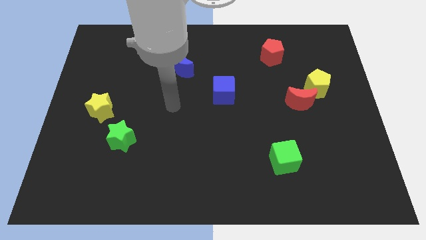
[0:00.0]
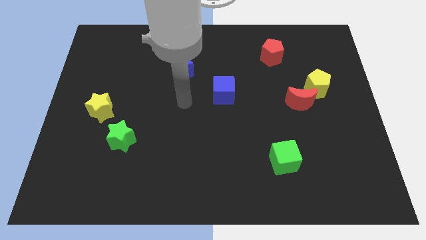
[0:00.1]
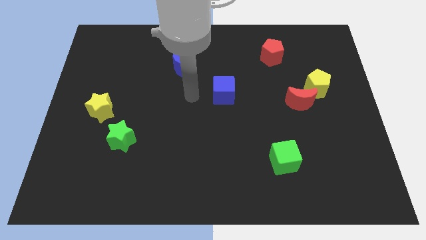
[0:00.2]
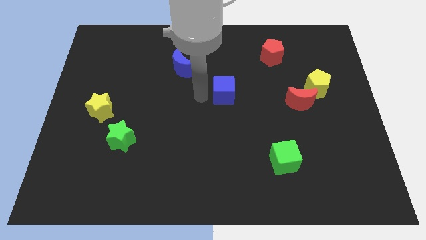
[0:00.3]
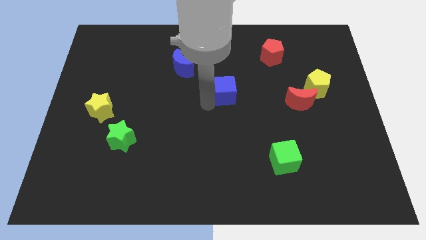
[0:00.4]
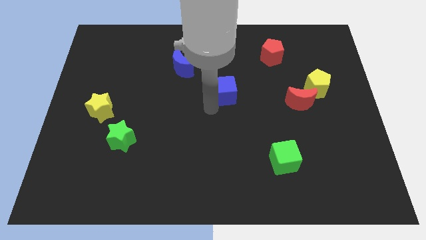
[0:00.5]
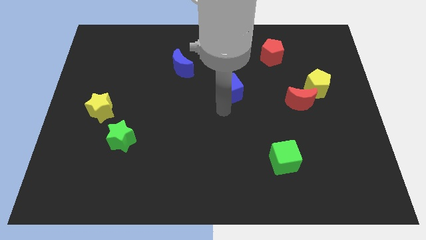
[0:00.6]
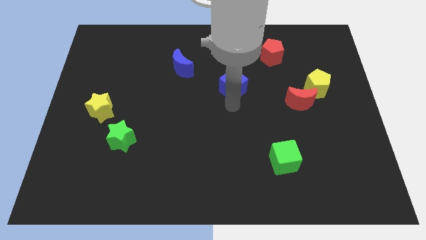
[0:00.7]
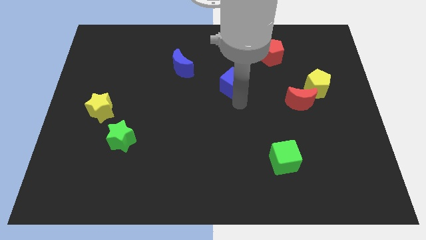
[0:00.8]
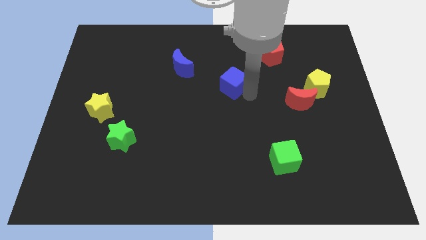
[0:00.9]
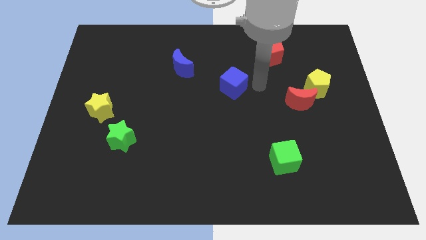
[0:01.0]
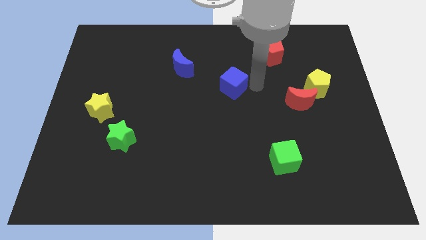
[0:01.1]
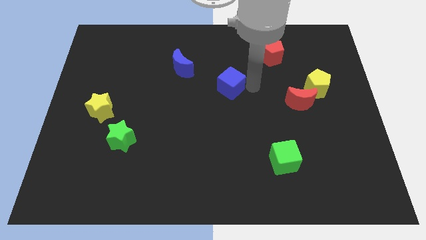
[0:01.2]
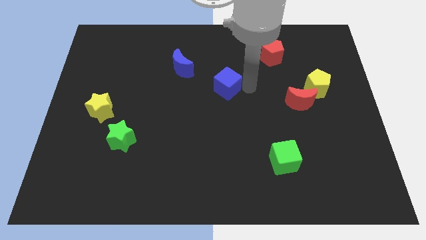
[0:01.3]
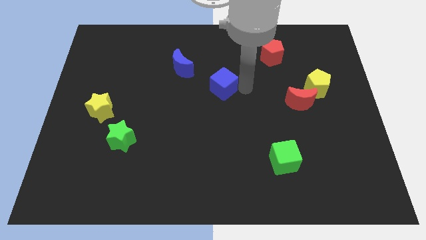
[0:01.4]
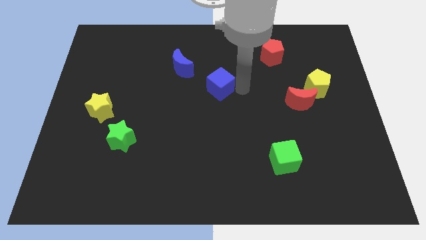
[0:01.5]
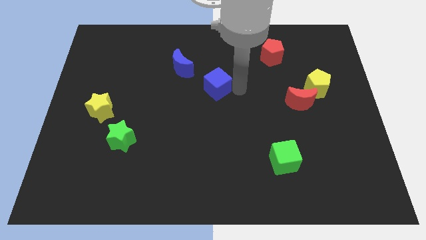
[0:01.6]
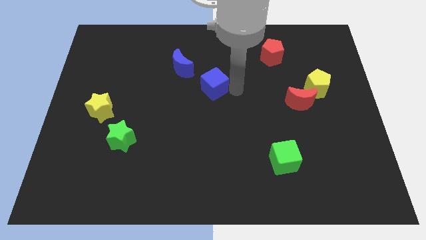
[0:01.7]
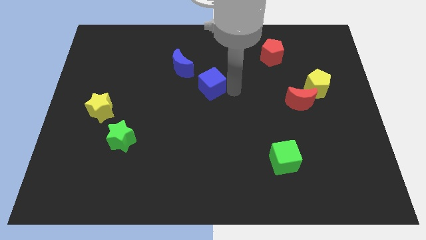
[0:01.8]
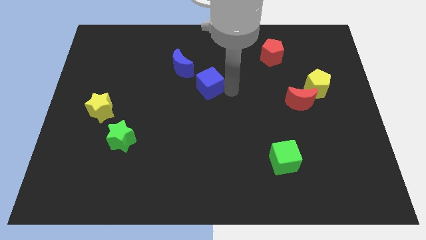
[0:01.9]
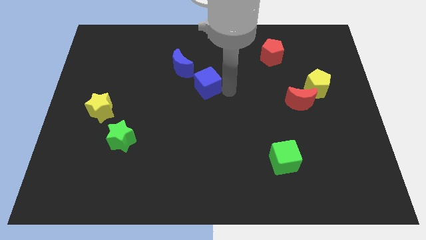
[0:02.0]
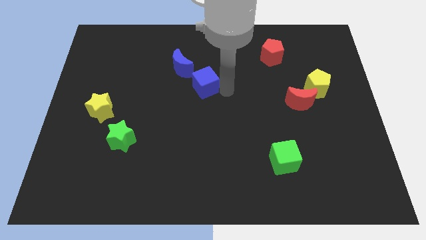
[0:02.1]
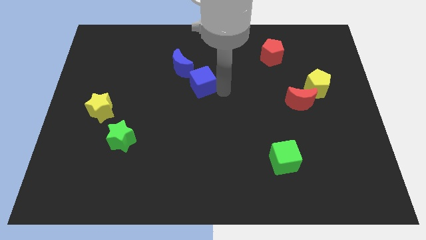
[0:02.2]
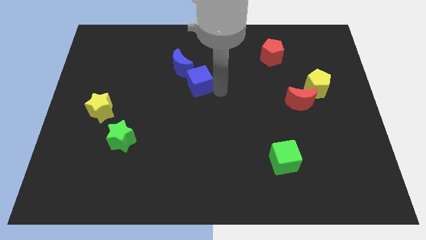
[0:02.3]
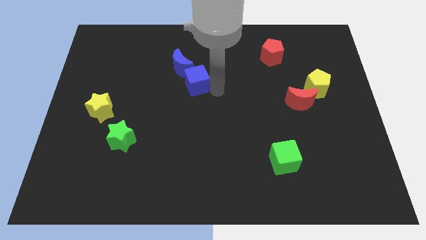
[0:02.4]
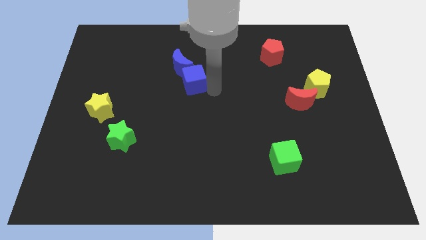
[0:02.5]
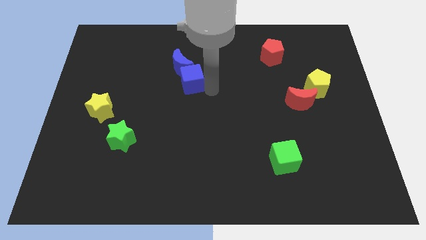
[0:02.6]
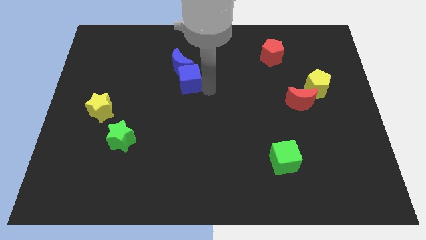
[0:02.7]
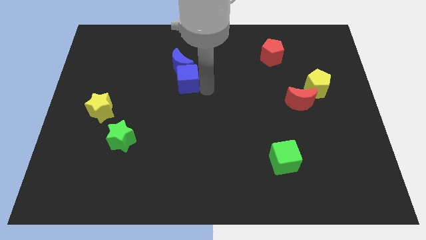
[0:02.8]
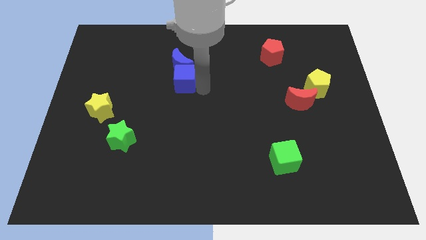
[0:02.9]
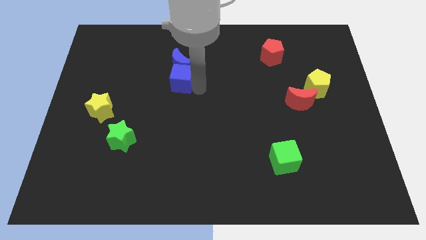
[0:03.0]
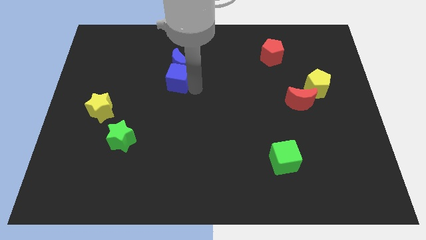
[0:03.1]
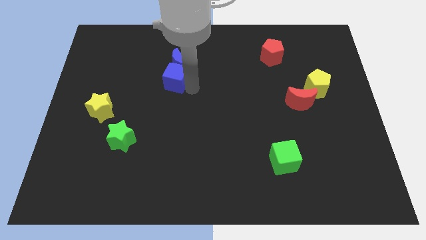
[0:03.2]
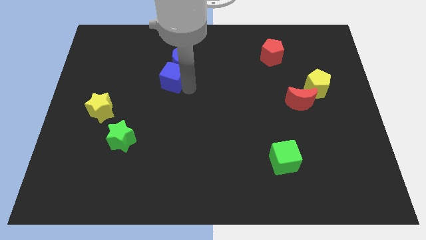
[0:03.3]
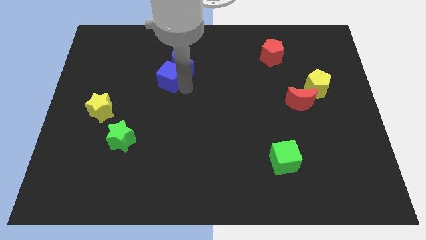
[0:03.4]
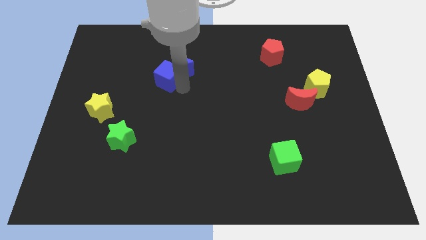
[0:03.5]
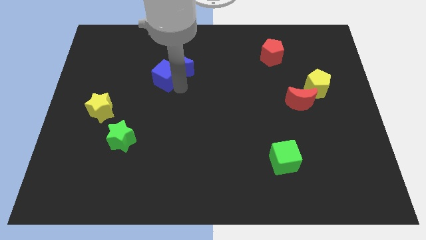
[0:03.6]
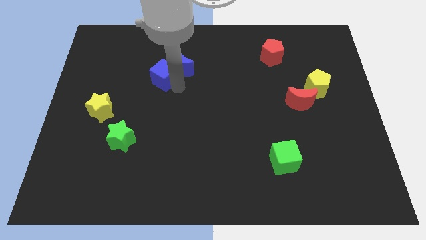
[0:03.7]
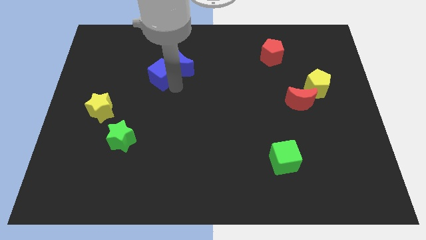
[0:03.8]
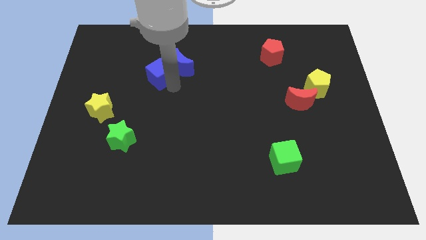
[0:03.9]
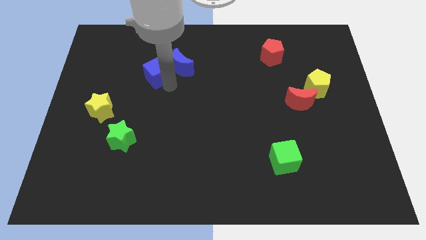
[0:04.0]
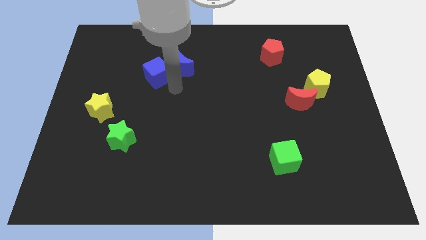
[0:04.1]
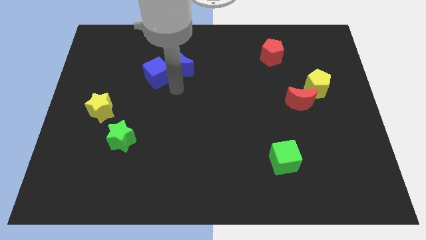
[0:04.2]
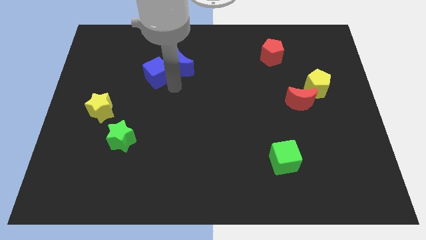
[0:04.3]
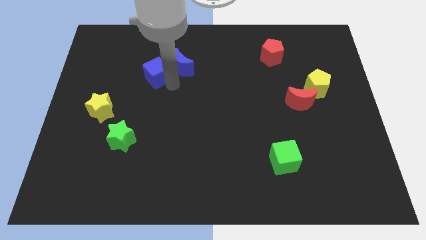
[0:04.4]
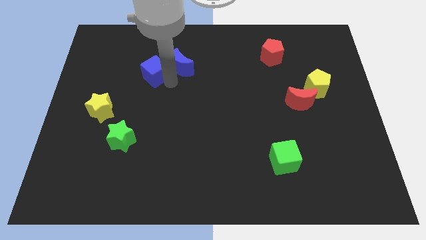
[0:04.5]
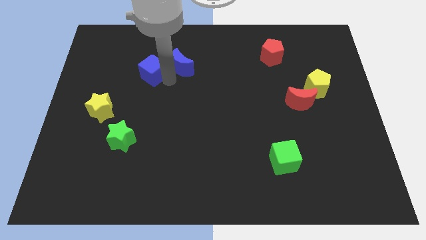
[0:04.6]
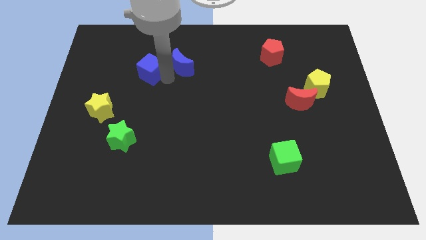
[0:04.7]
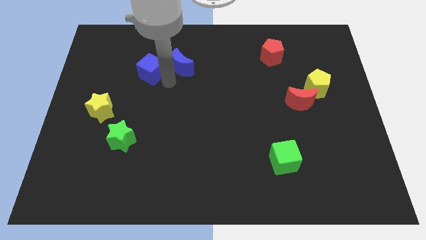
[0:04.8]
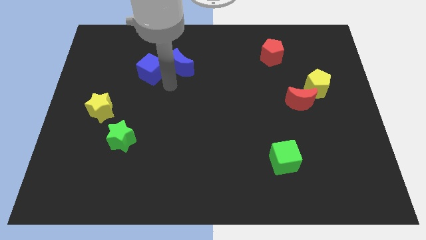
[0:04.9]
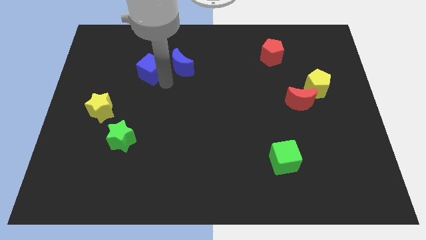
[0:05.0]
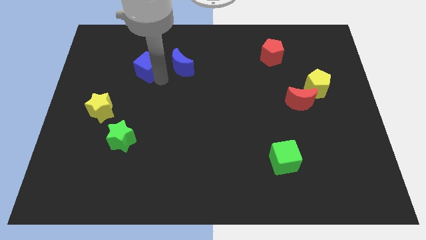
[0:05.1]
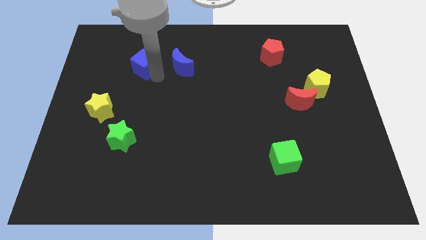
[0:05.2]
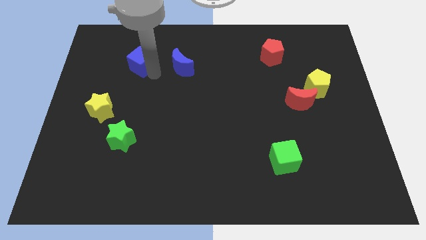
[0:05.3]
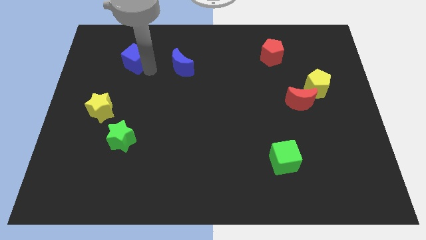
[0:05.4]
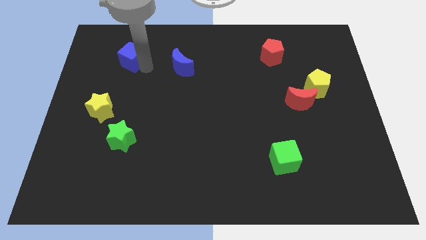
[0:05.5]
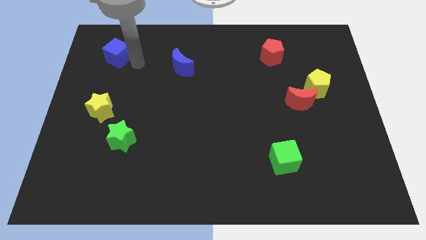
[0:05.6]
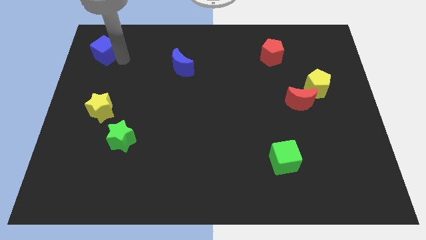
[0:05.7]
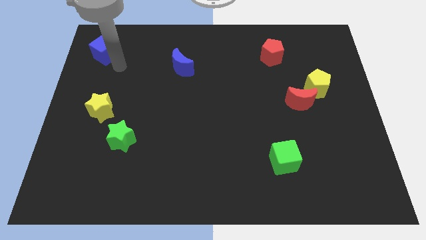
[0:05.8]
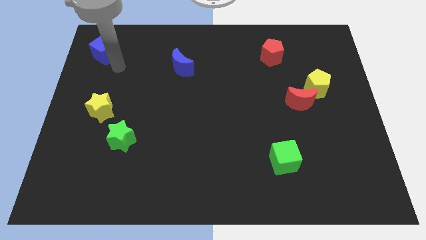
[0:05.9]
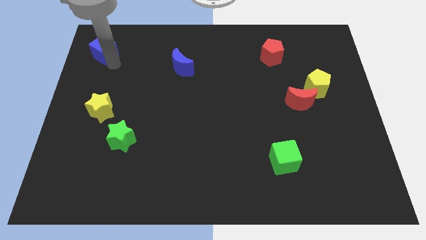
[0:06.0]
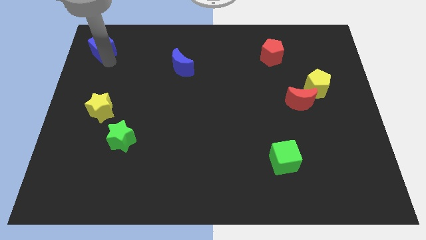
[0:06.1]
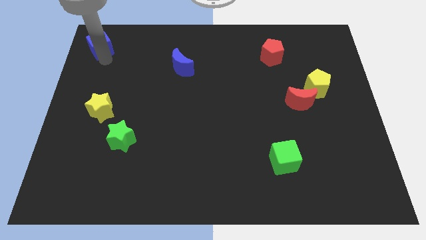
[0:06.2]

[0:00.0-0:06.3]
put the blue cube to the top left
